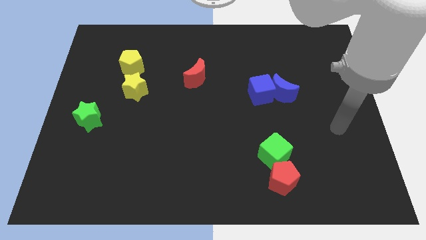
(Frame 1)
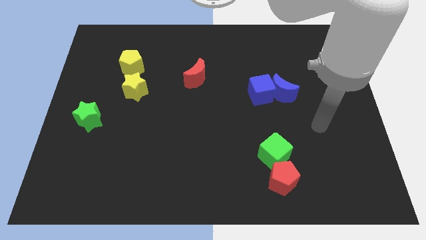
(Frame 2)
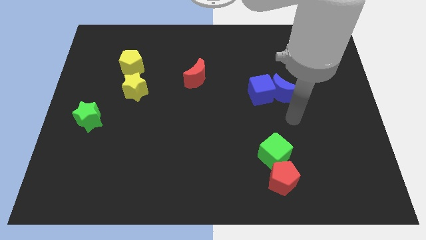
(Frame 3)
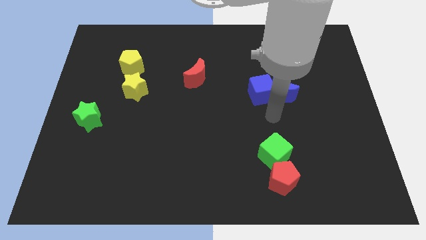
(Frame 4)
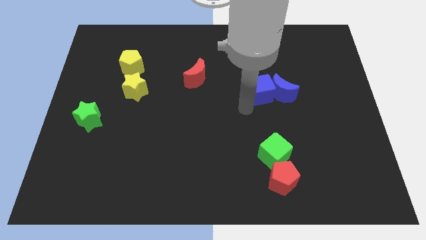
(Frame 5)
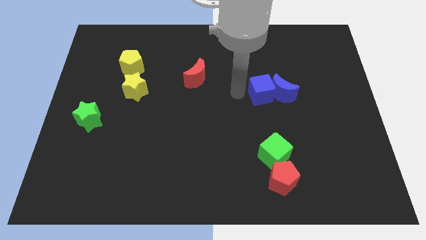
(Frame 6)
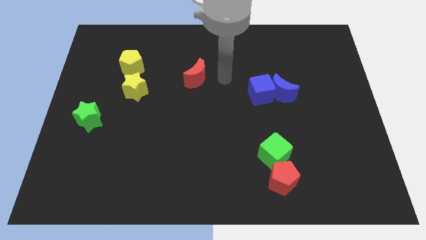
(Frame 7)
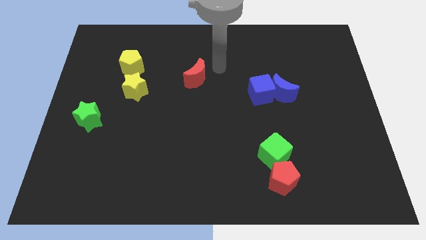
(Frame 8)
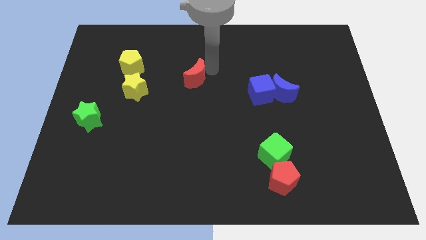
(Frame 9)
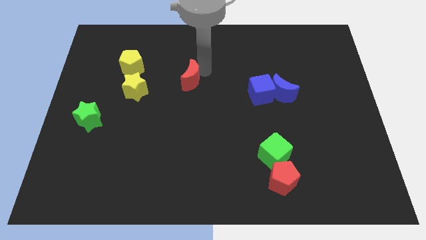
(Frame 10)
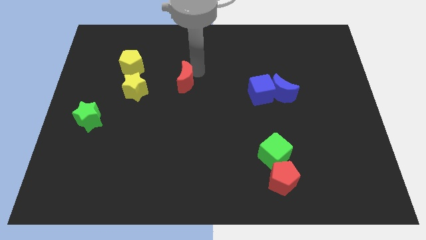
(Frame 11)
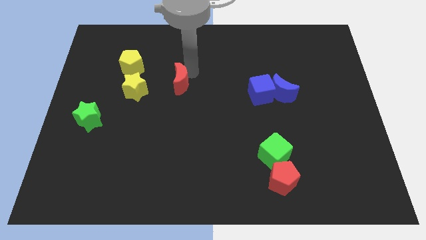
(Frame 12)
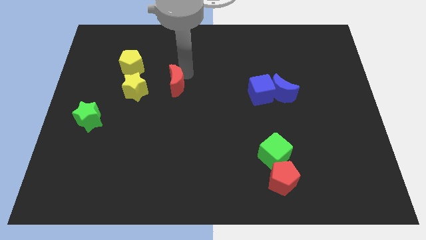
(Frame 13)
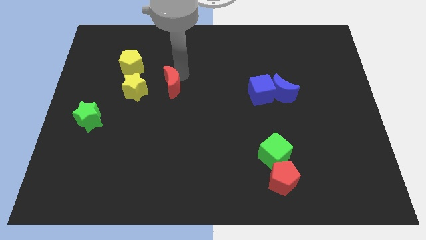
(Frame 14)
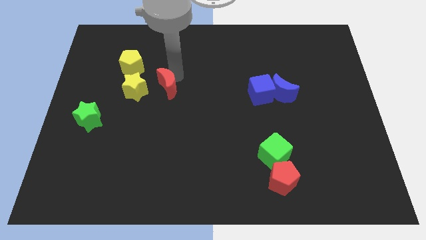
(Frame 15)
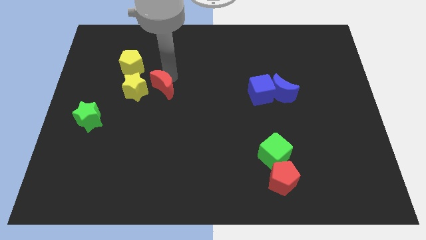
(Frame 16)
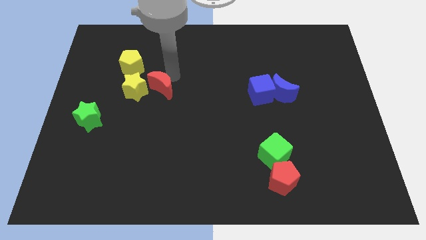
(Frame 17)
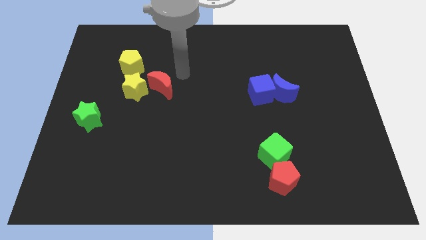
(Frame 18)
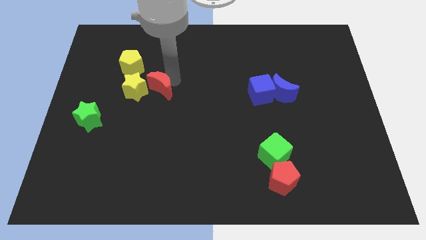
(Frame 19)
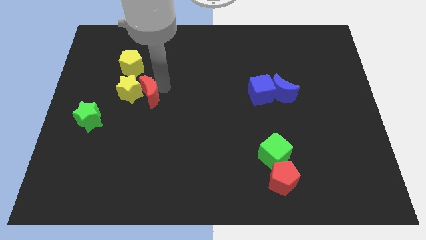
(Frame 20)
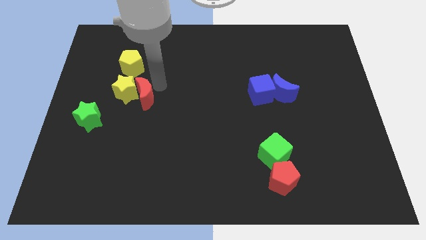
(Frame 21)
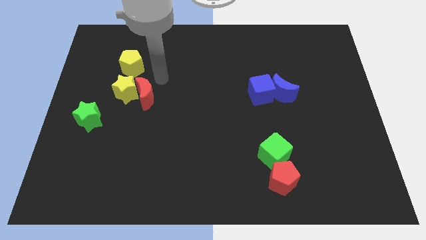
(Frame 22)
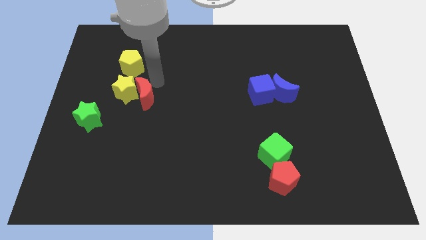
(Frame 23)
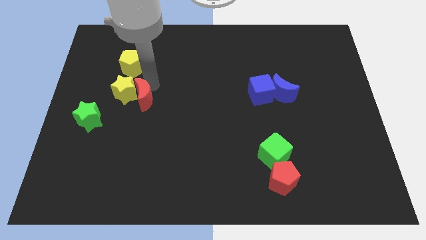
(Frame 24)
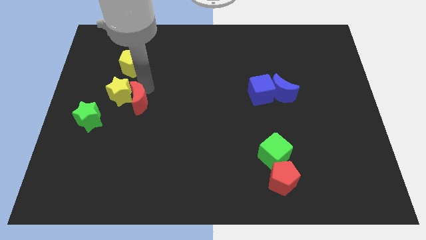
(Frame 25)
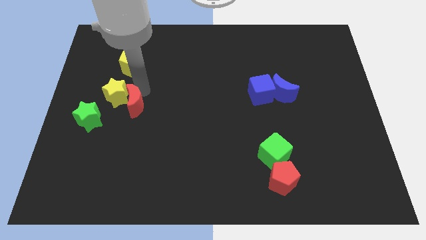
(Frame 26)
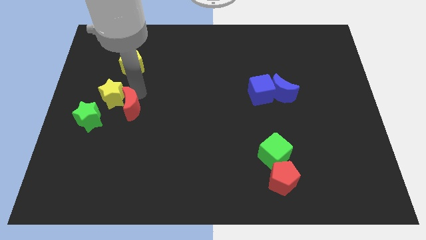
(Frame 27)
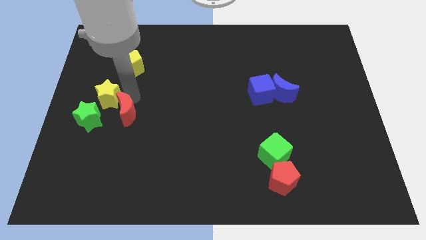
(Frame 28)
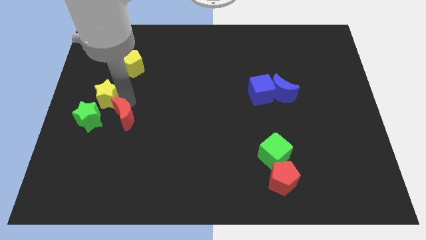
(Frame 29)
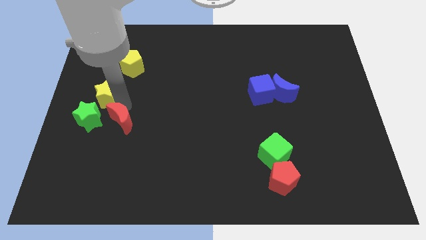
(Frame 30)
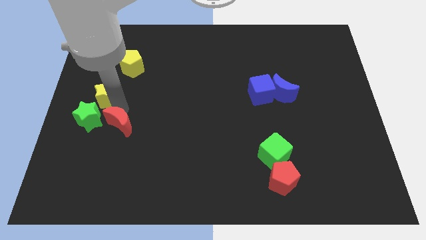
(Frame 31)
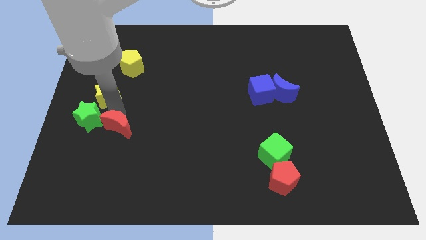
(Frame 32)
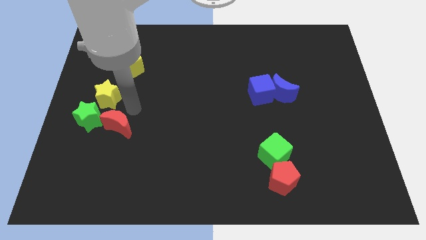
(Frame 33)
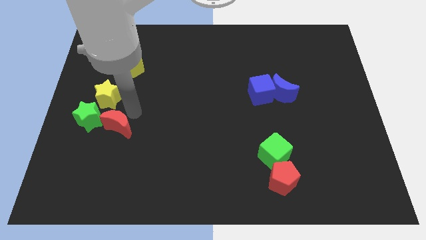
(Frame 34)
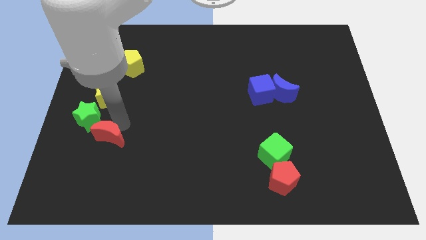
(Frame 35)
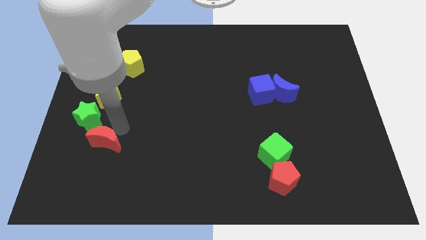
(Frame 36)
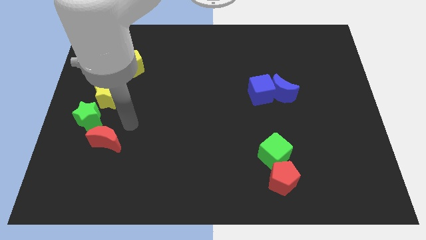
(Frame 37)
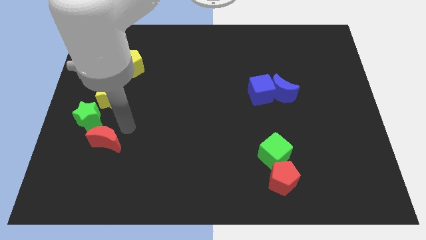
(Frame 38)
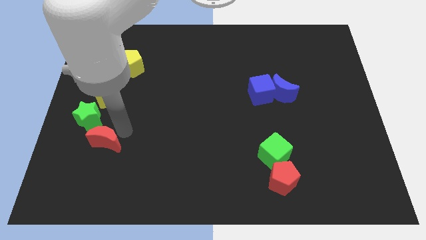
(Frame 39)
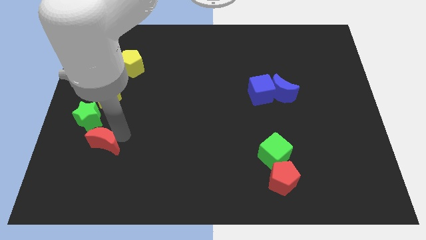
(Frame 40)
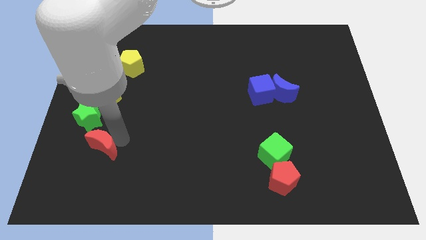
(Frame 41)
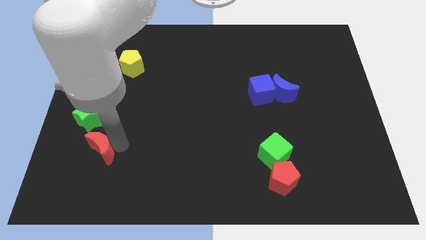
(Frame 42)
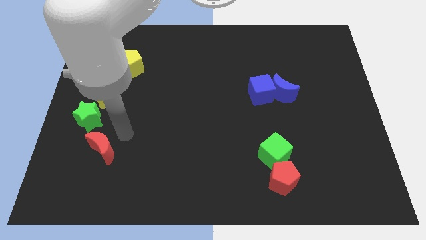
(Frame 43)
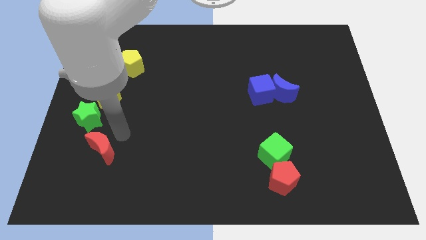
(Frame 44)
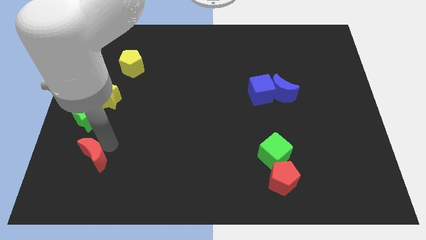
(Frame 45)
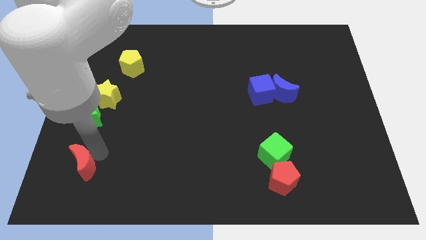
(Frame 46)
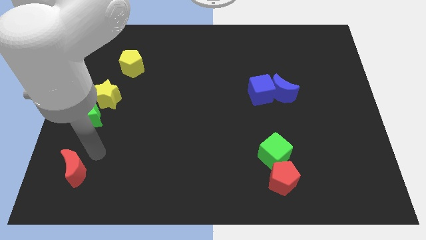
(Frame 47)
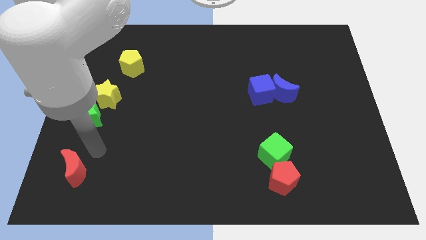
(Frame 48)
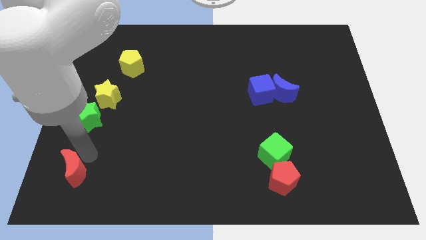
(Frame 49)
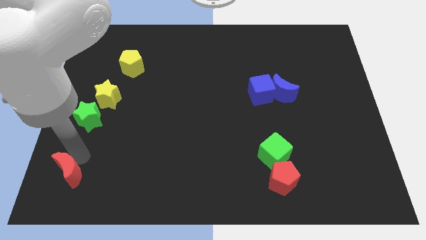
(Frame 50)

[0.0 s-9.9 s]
push the red moon to the bottom left of the board

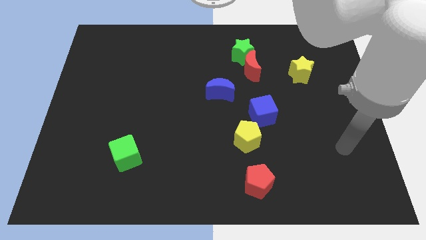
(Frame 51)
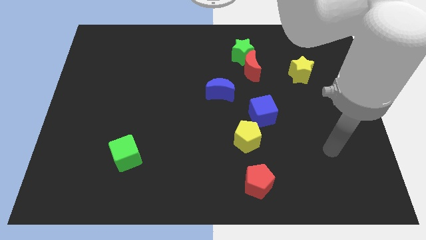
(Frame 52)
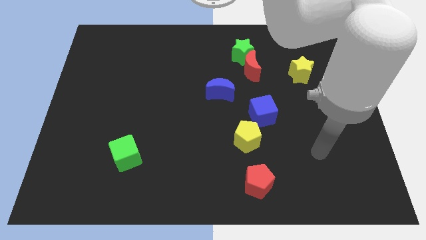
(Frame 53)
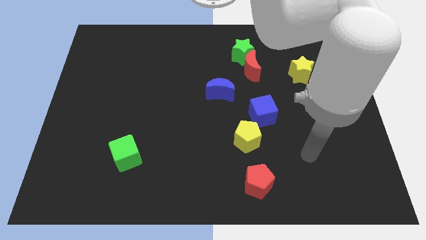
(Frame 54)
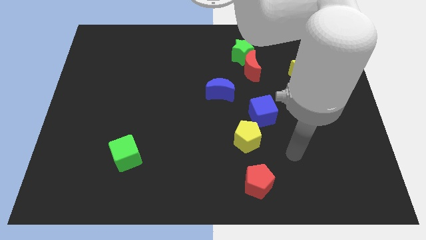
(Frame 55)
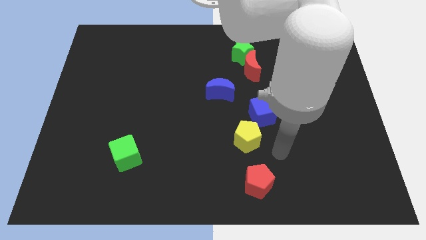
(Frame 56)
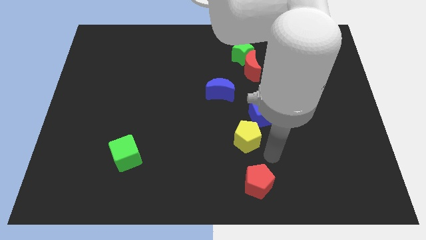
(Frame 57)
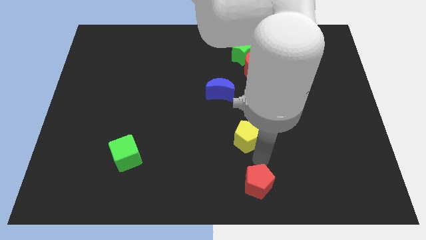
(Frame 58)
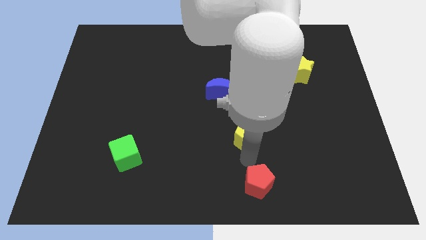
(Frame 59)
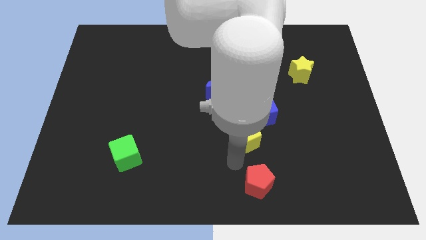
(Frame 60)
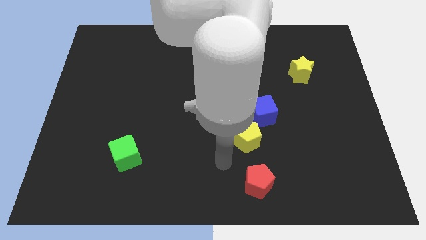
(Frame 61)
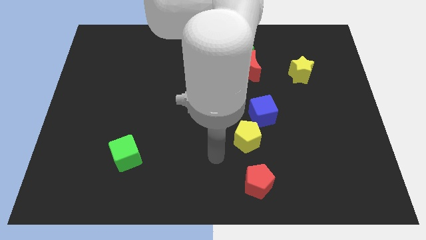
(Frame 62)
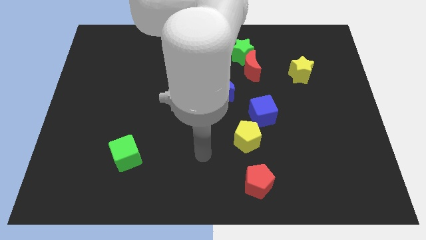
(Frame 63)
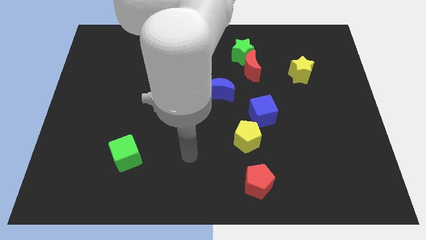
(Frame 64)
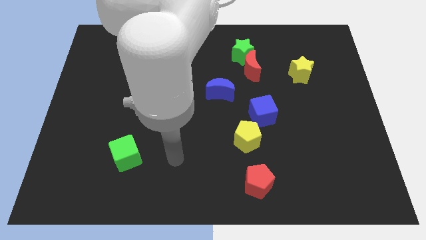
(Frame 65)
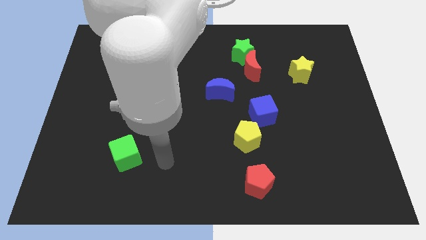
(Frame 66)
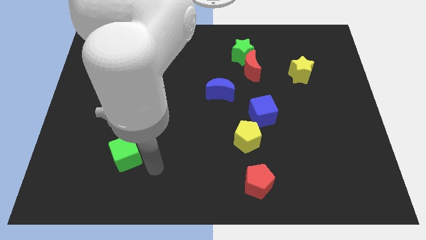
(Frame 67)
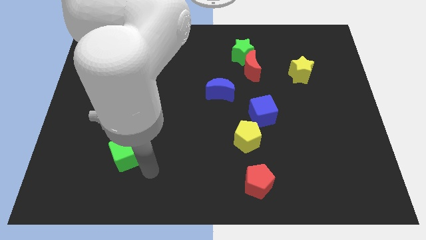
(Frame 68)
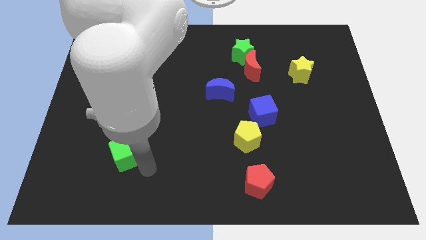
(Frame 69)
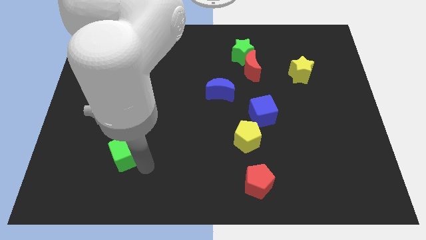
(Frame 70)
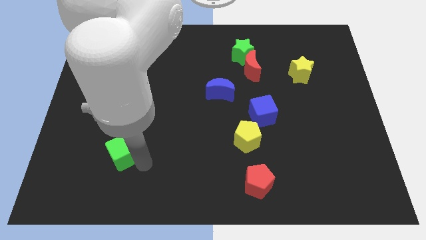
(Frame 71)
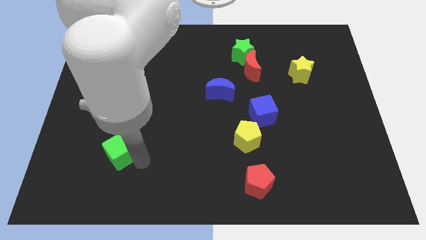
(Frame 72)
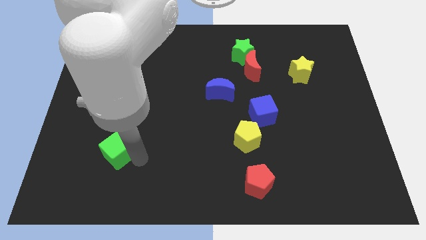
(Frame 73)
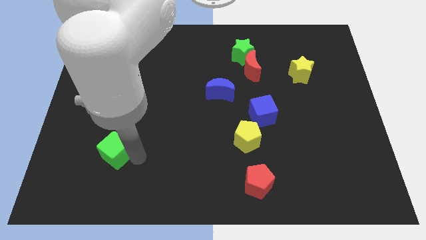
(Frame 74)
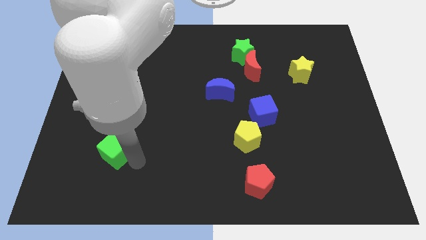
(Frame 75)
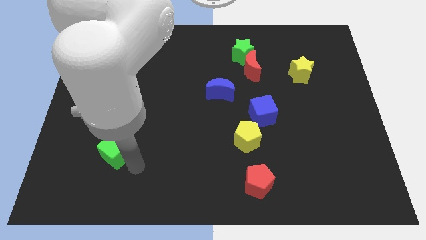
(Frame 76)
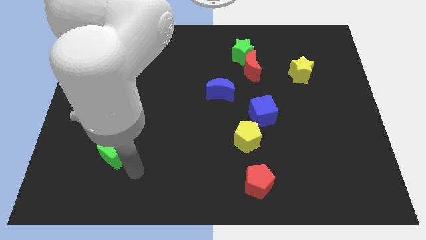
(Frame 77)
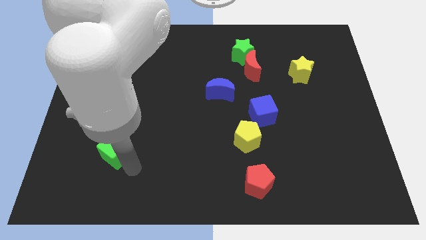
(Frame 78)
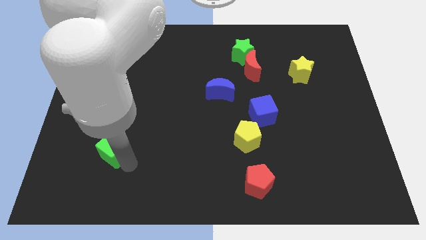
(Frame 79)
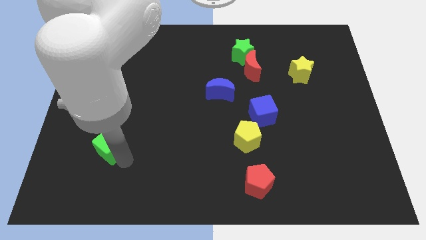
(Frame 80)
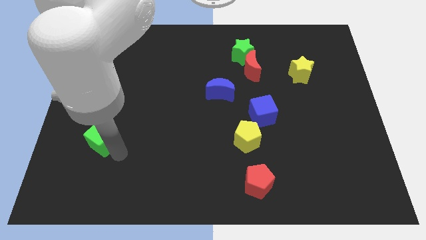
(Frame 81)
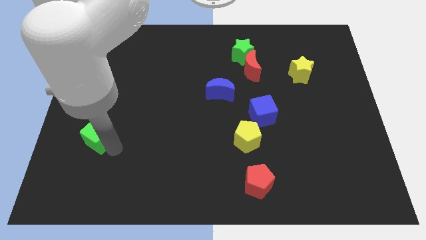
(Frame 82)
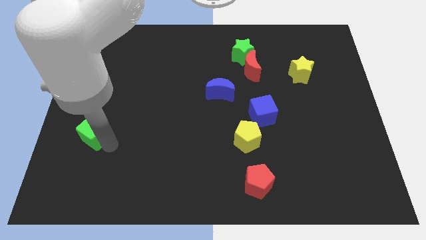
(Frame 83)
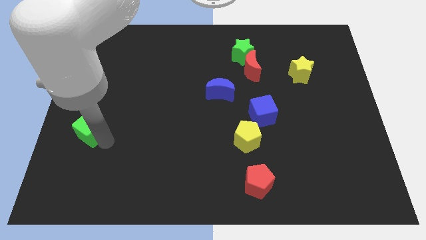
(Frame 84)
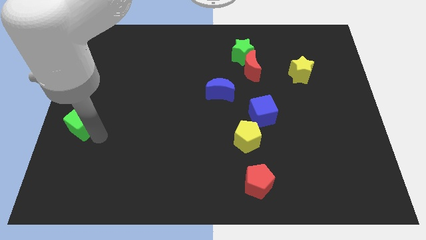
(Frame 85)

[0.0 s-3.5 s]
push the green cube to the left side of the board
